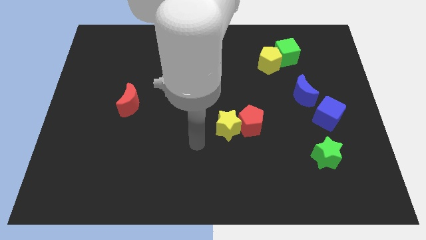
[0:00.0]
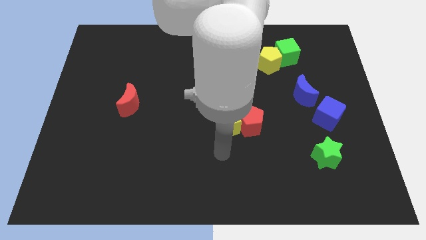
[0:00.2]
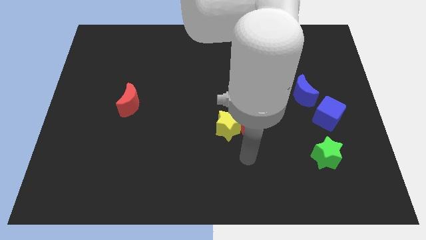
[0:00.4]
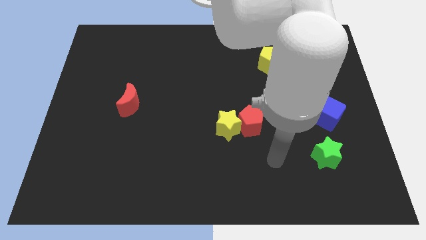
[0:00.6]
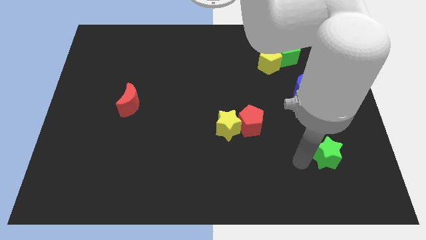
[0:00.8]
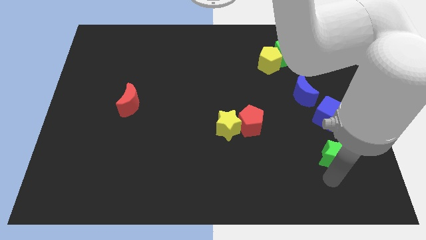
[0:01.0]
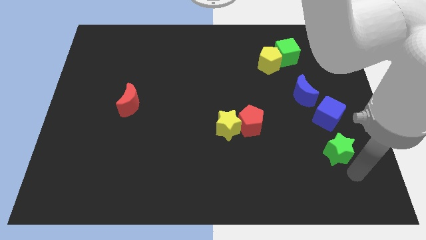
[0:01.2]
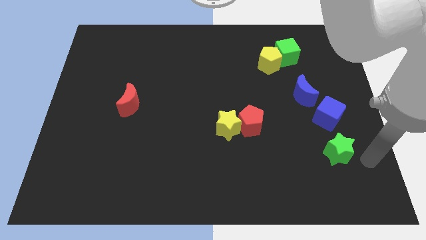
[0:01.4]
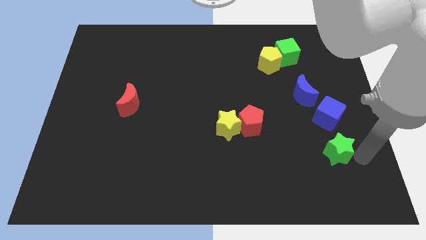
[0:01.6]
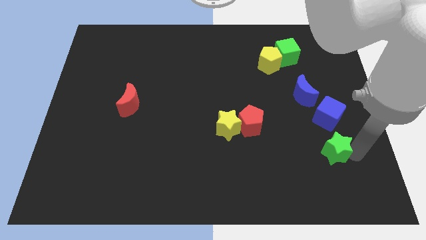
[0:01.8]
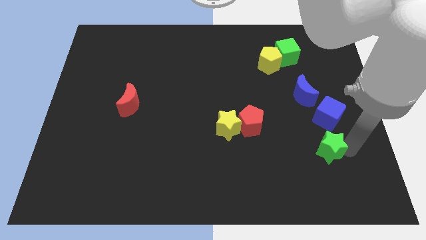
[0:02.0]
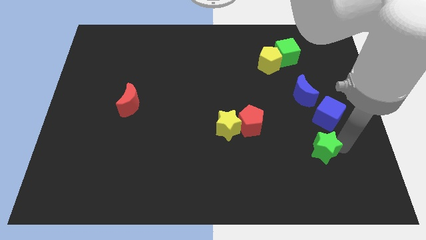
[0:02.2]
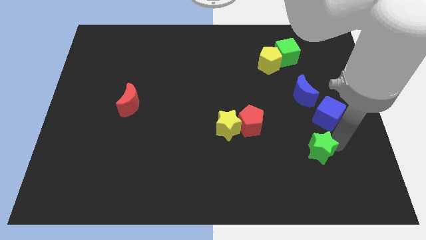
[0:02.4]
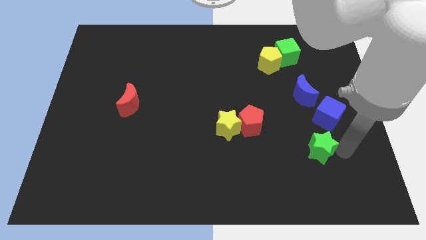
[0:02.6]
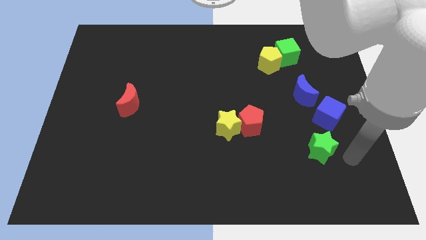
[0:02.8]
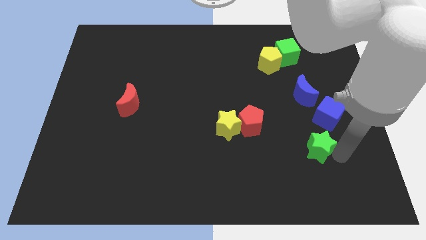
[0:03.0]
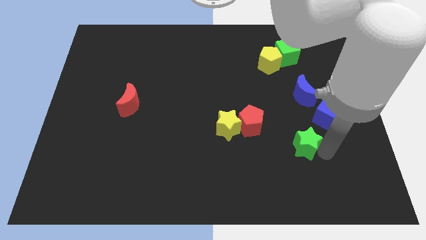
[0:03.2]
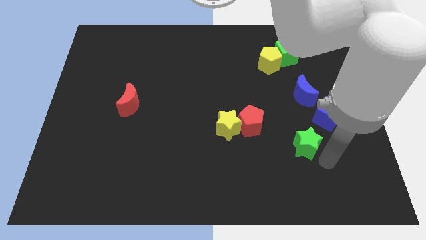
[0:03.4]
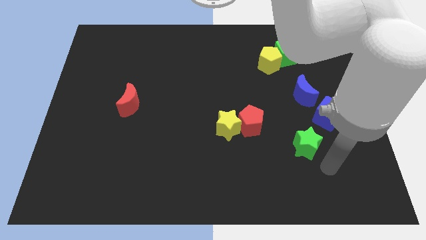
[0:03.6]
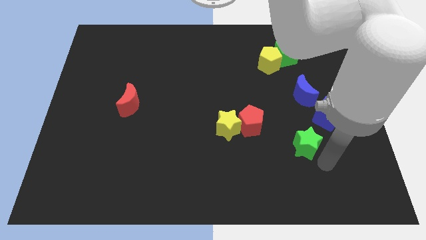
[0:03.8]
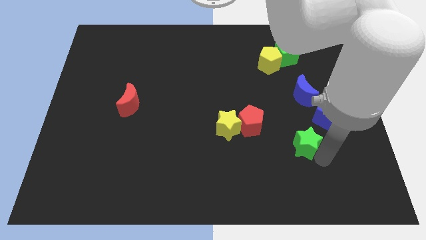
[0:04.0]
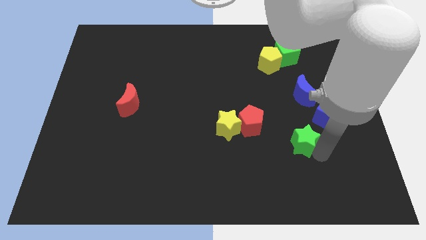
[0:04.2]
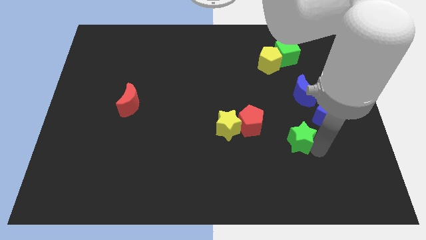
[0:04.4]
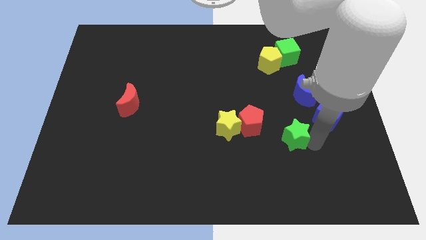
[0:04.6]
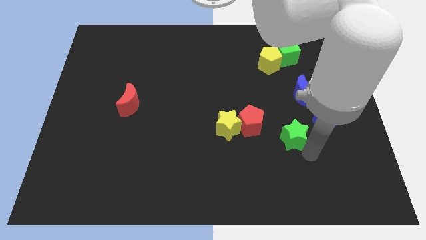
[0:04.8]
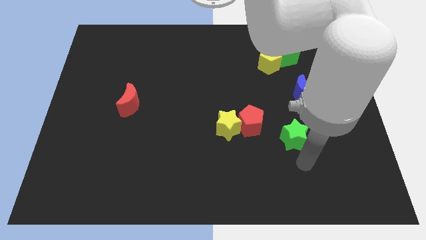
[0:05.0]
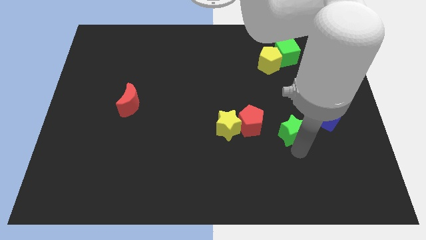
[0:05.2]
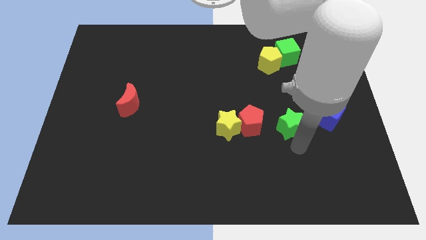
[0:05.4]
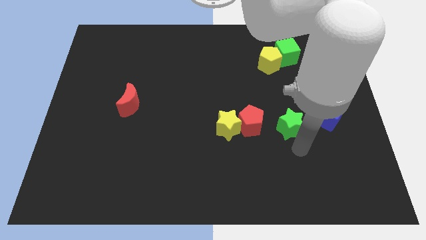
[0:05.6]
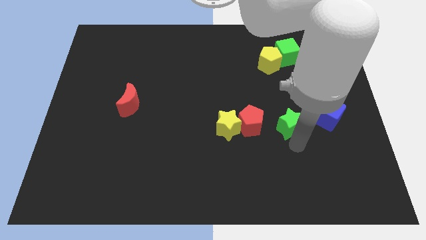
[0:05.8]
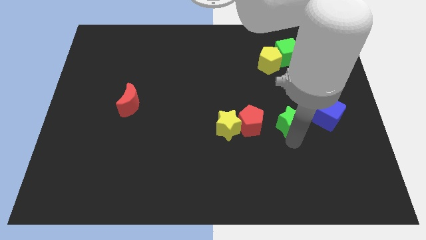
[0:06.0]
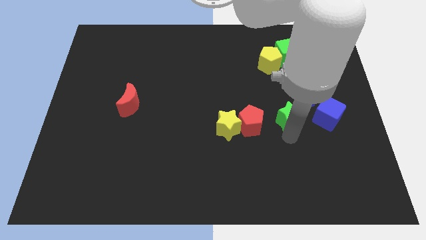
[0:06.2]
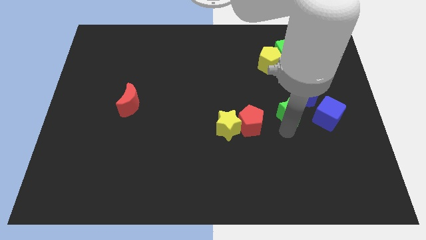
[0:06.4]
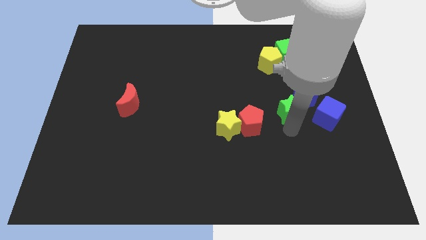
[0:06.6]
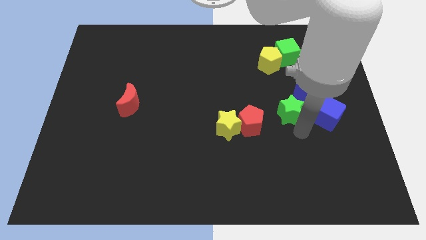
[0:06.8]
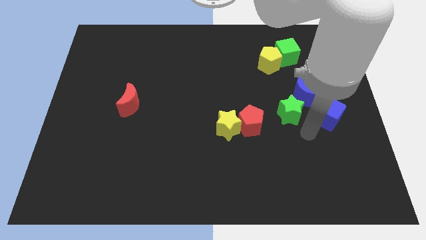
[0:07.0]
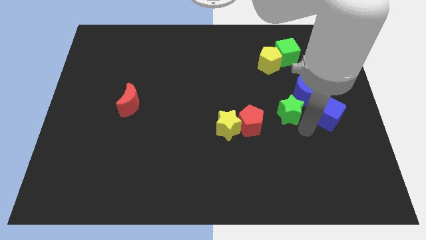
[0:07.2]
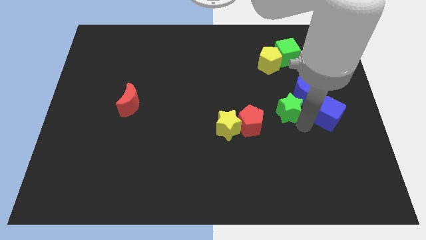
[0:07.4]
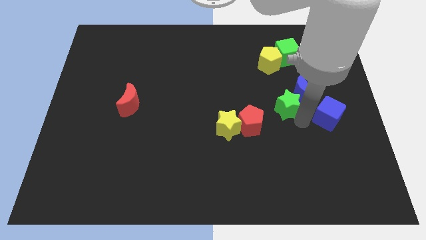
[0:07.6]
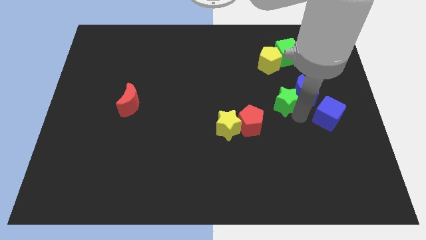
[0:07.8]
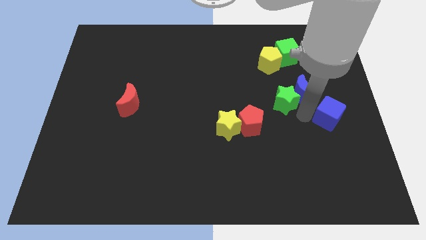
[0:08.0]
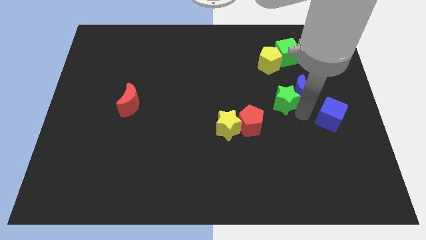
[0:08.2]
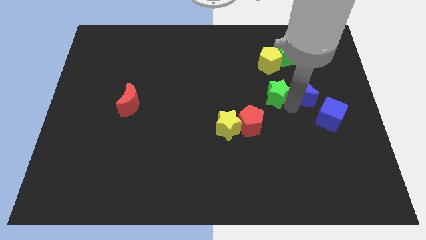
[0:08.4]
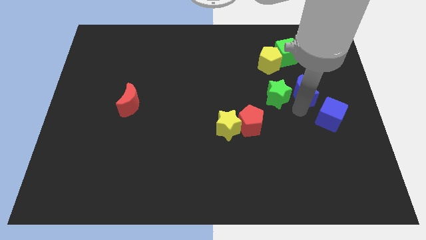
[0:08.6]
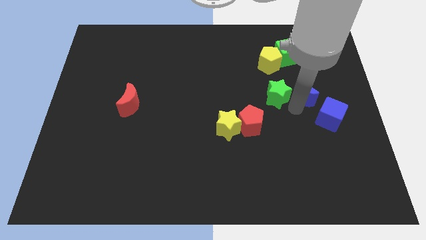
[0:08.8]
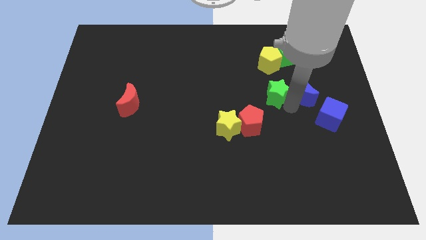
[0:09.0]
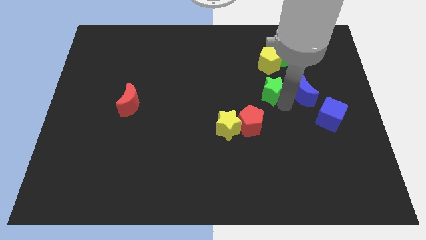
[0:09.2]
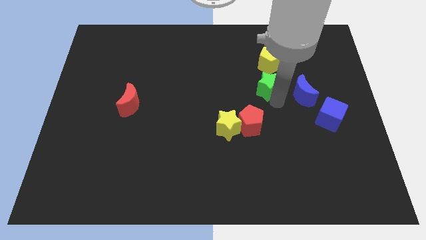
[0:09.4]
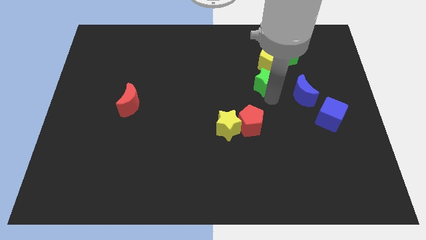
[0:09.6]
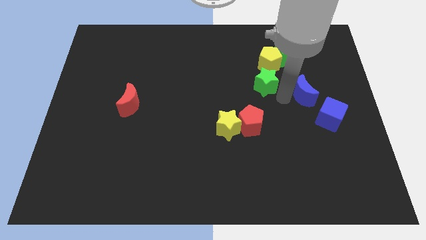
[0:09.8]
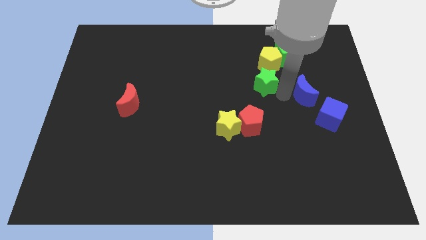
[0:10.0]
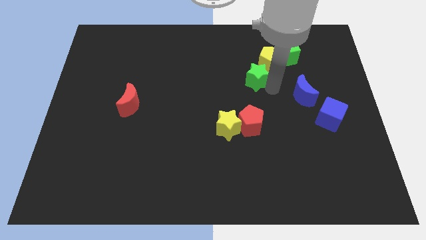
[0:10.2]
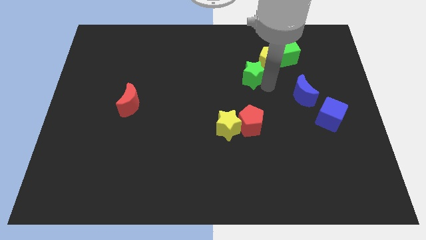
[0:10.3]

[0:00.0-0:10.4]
put the green star to the left of the yellow pentagon

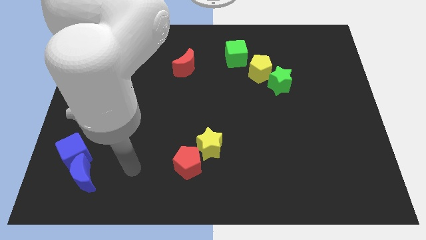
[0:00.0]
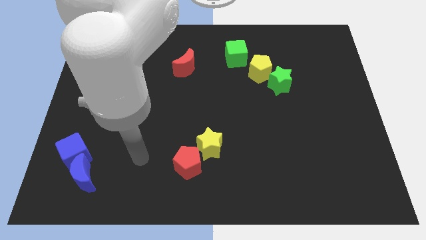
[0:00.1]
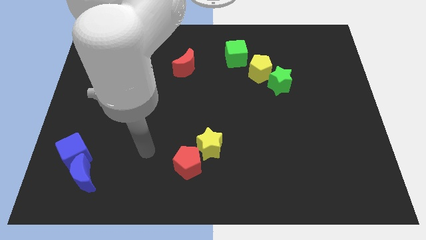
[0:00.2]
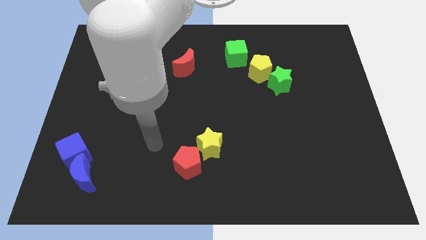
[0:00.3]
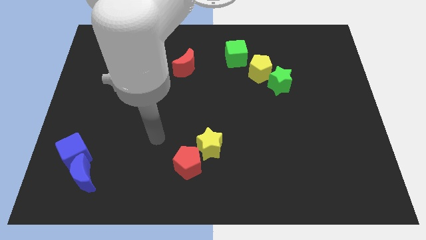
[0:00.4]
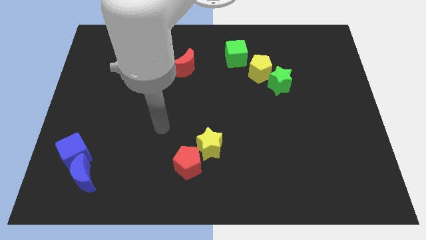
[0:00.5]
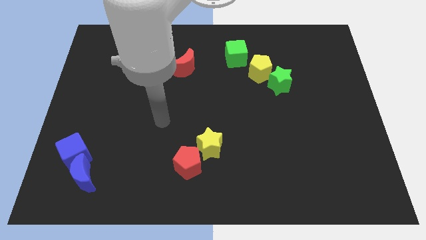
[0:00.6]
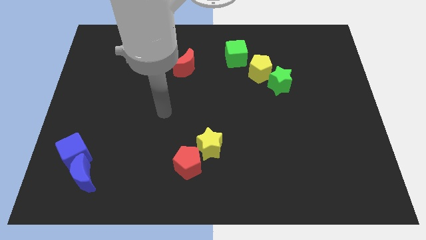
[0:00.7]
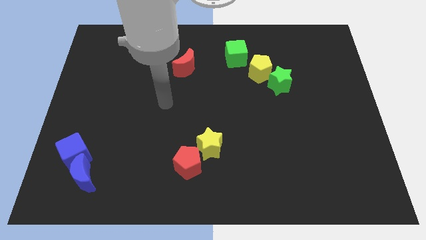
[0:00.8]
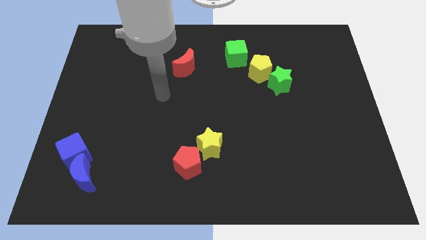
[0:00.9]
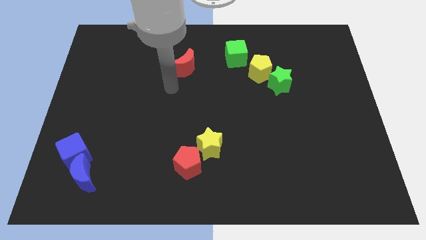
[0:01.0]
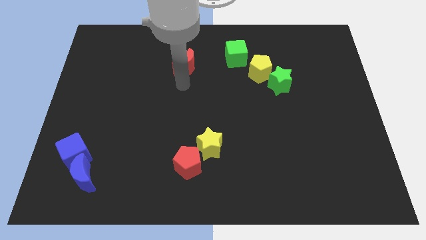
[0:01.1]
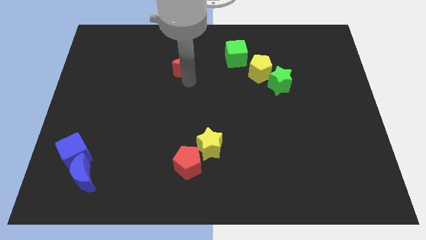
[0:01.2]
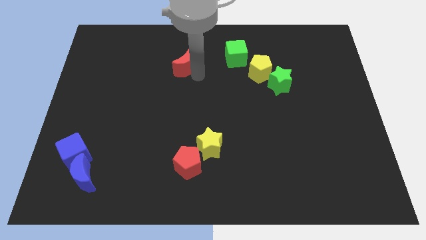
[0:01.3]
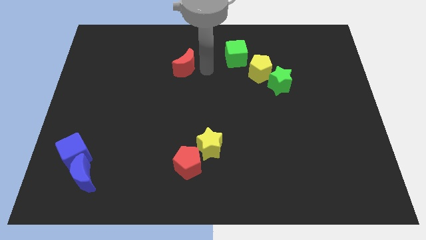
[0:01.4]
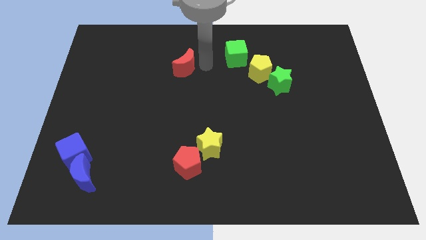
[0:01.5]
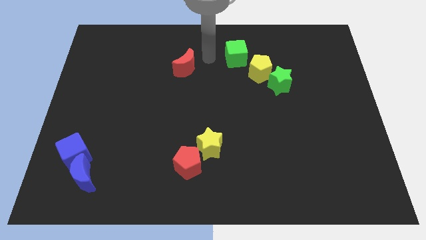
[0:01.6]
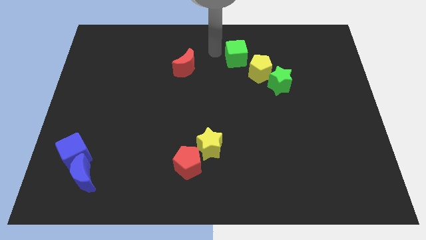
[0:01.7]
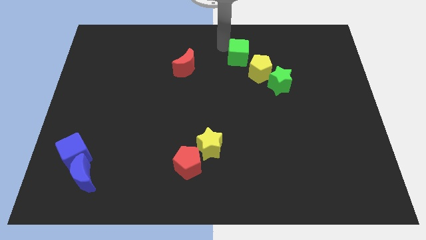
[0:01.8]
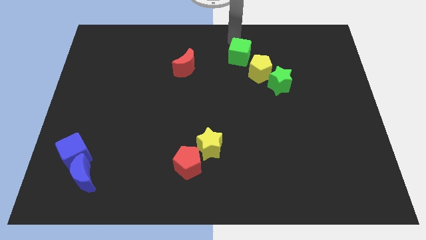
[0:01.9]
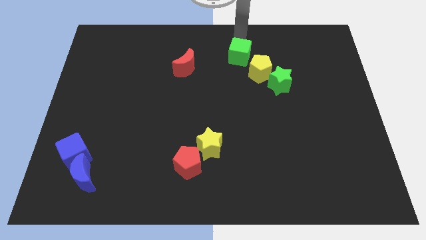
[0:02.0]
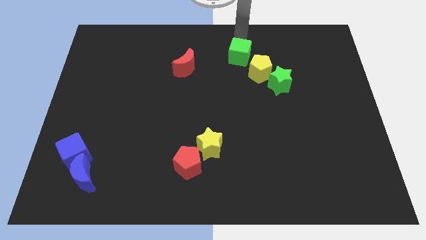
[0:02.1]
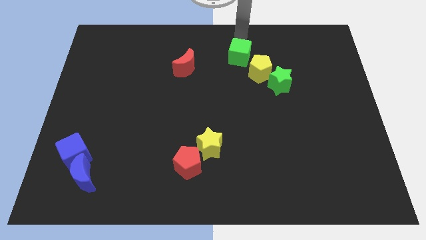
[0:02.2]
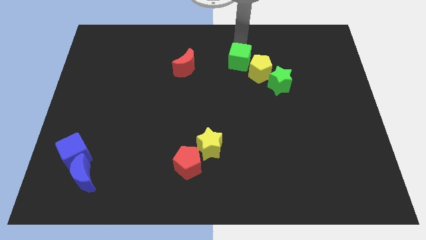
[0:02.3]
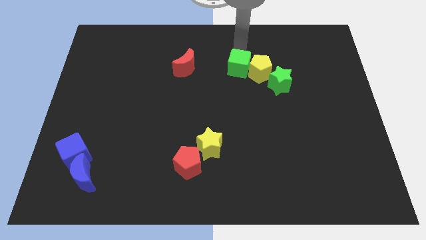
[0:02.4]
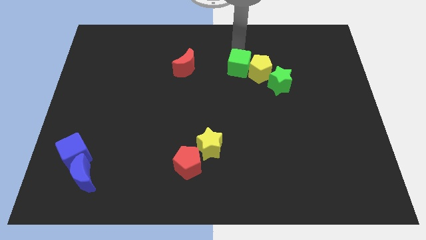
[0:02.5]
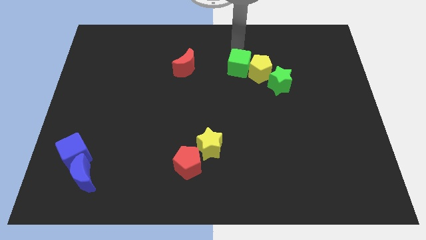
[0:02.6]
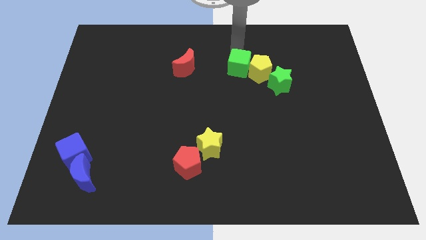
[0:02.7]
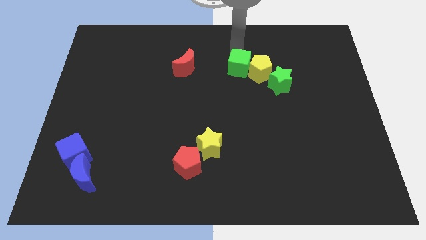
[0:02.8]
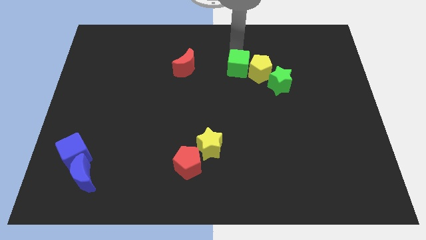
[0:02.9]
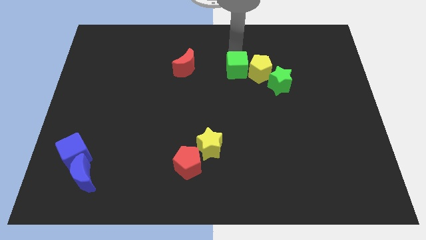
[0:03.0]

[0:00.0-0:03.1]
push the green cube to the bottom left side of the yellow pentagon
